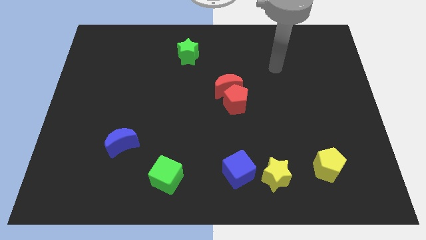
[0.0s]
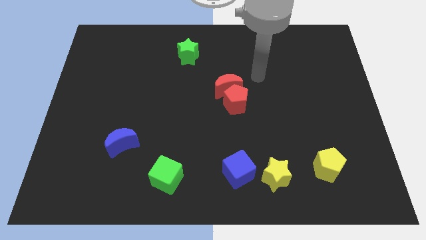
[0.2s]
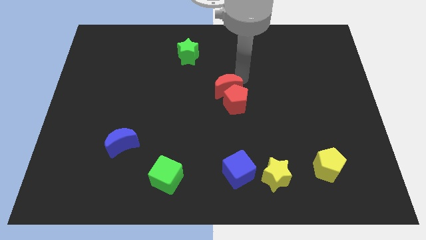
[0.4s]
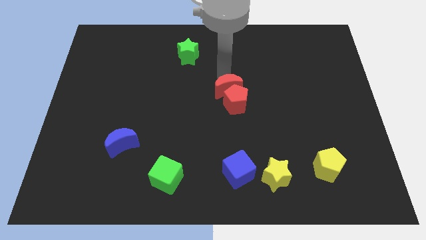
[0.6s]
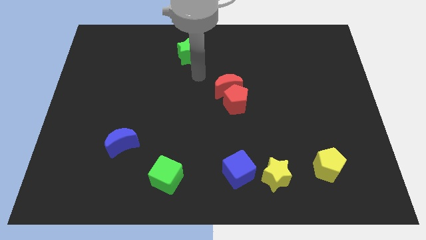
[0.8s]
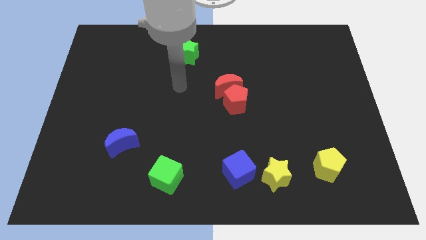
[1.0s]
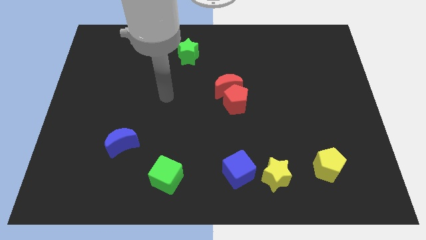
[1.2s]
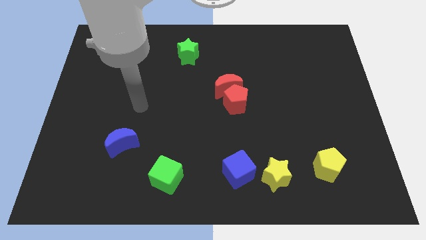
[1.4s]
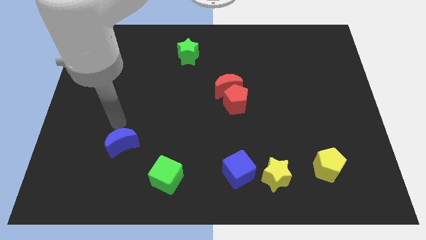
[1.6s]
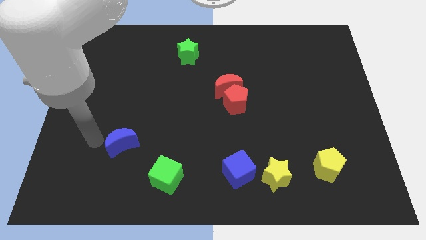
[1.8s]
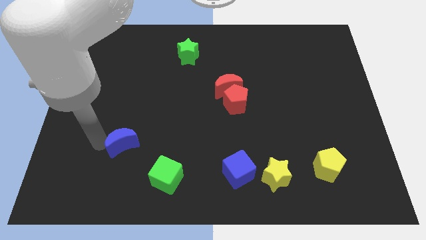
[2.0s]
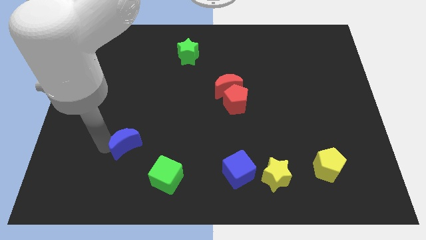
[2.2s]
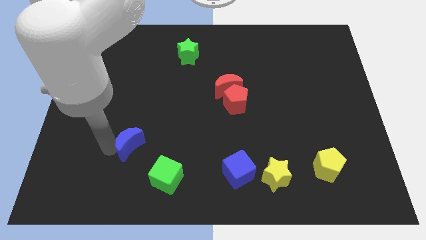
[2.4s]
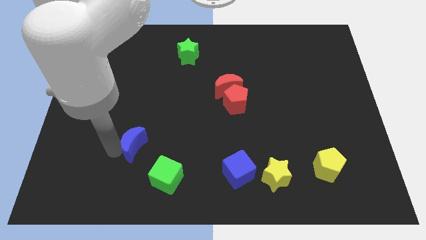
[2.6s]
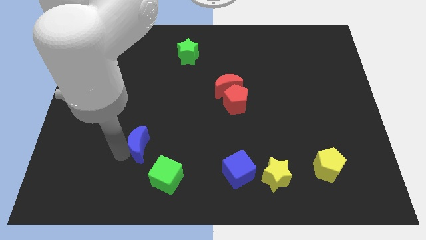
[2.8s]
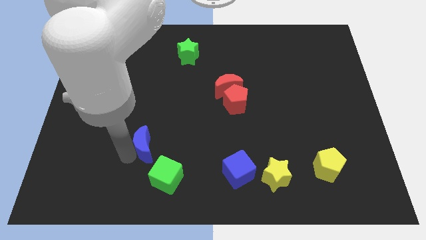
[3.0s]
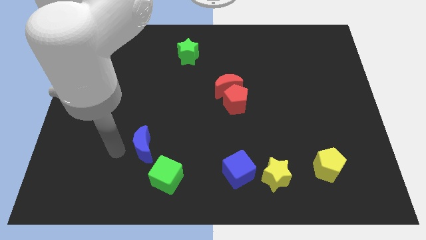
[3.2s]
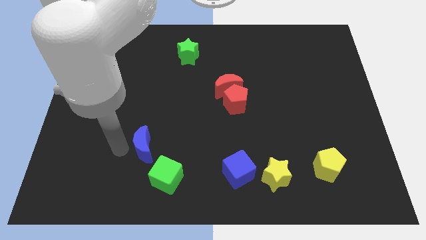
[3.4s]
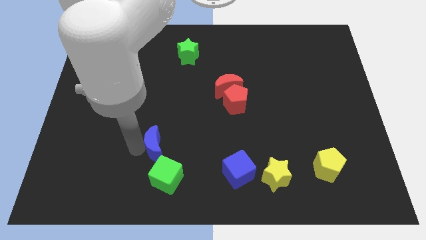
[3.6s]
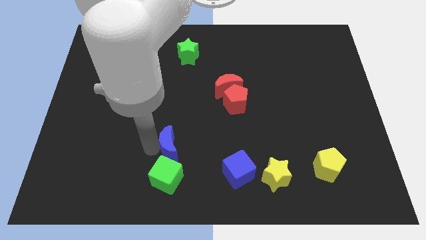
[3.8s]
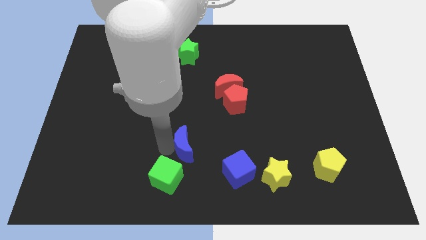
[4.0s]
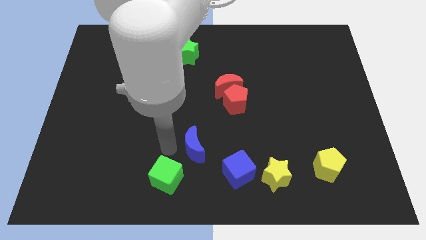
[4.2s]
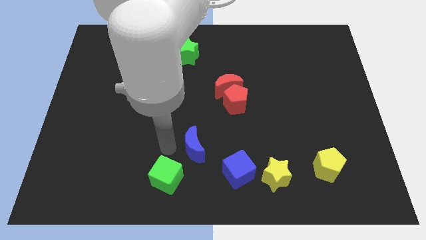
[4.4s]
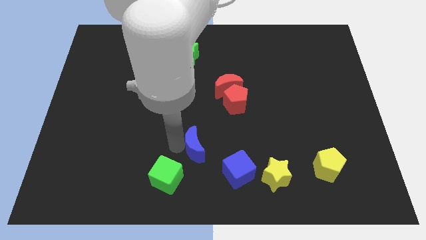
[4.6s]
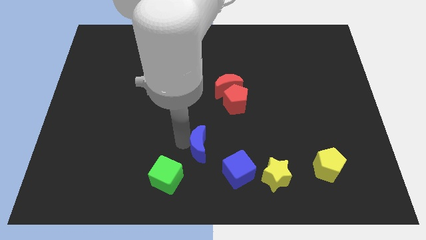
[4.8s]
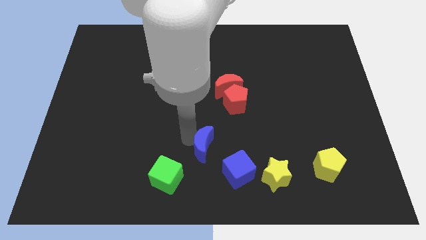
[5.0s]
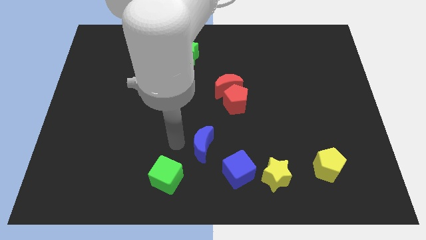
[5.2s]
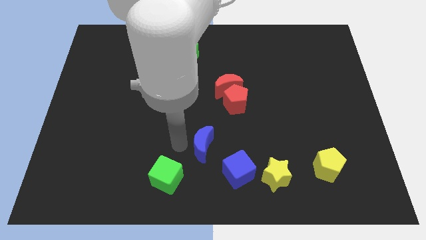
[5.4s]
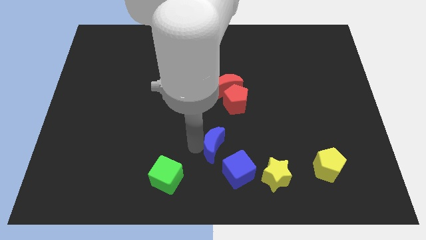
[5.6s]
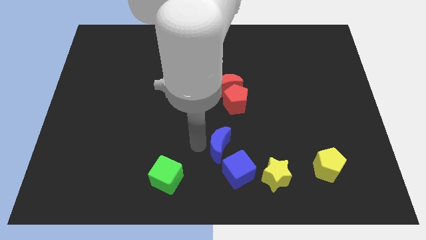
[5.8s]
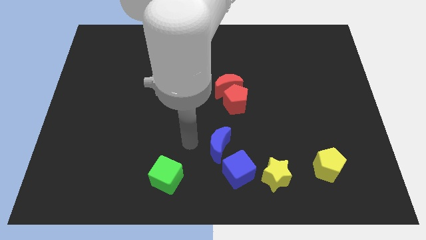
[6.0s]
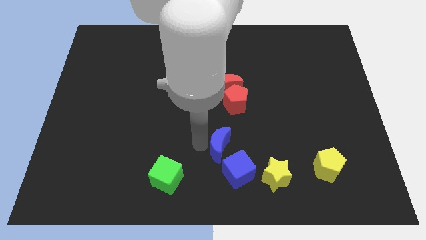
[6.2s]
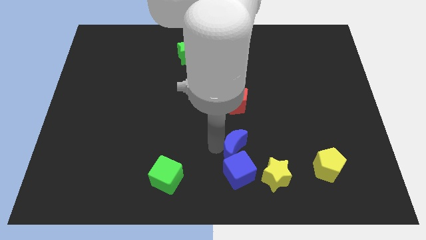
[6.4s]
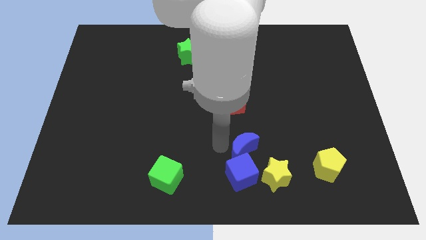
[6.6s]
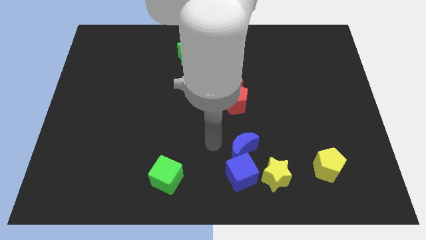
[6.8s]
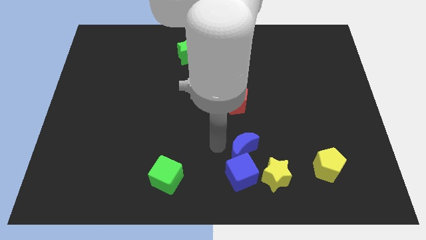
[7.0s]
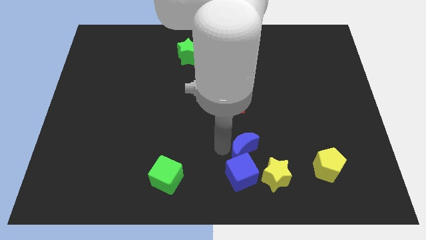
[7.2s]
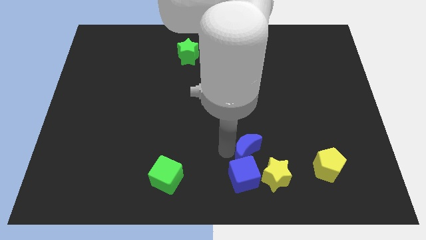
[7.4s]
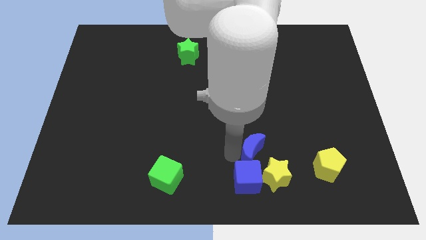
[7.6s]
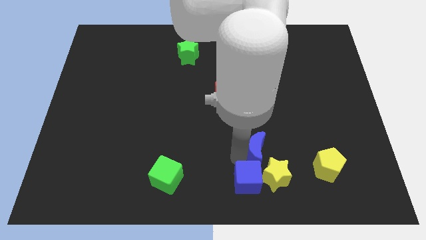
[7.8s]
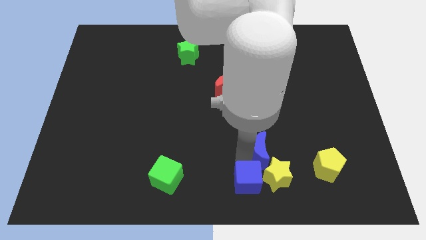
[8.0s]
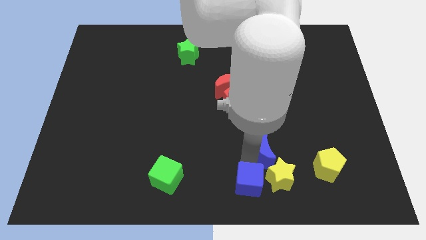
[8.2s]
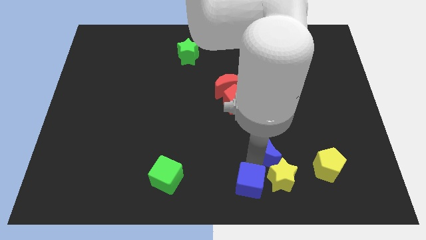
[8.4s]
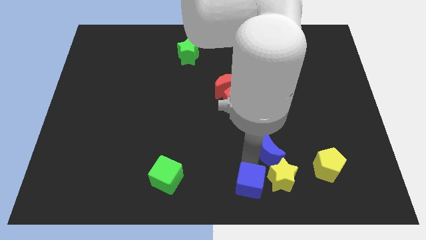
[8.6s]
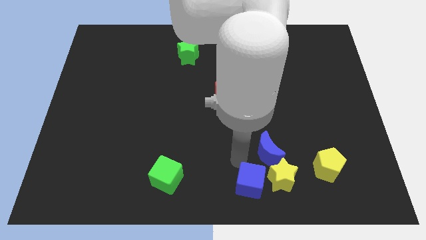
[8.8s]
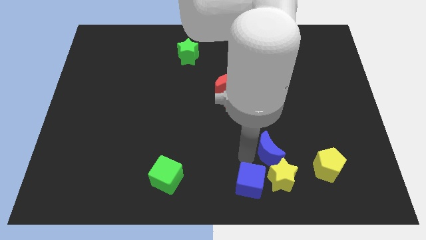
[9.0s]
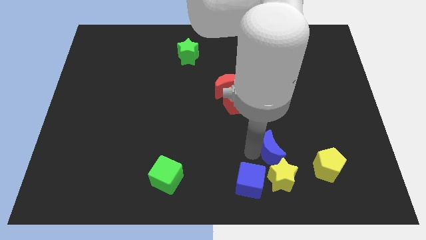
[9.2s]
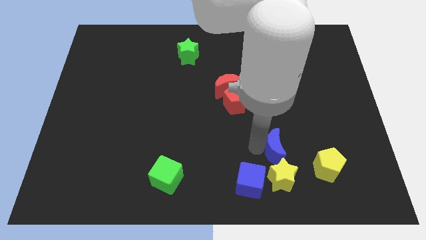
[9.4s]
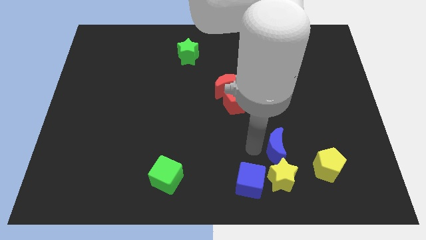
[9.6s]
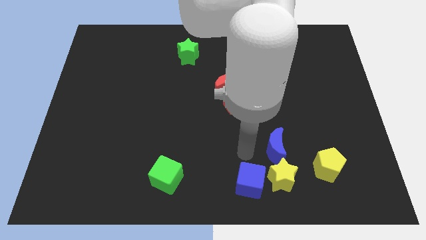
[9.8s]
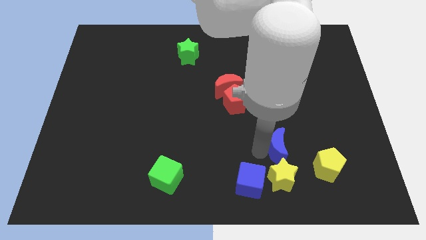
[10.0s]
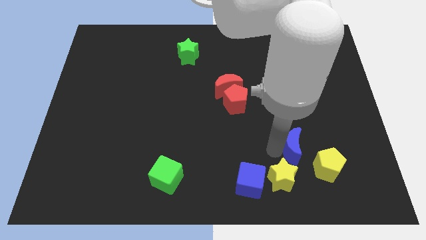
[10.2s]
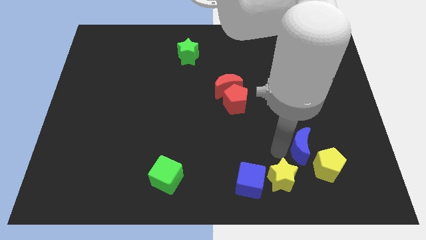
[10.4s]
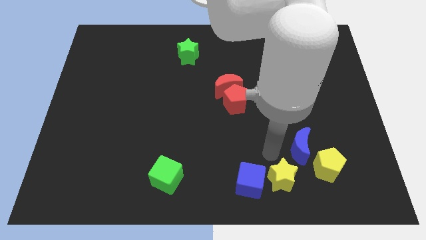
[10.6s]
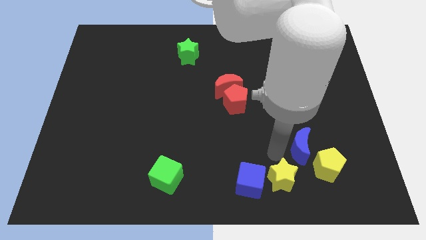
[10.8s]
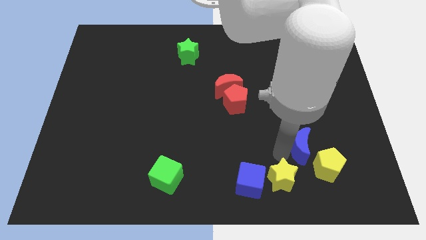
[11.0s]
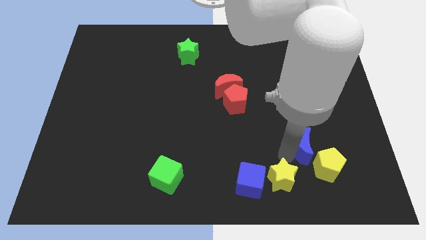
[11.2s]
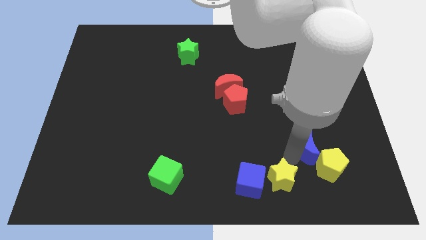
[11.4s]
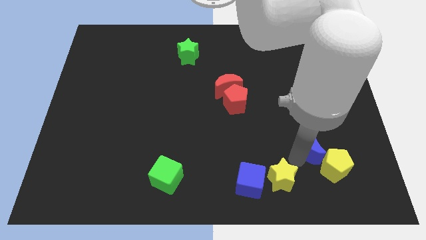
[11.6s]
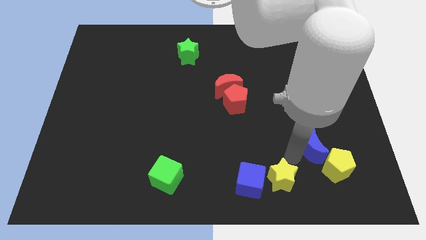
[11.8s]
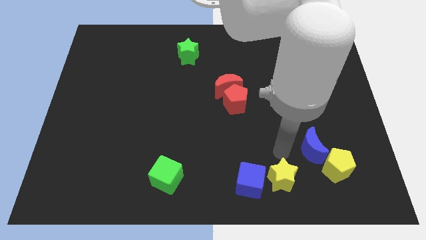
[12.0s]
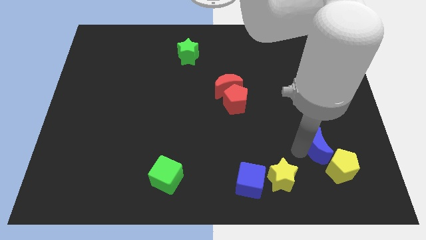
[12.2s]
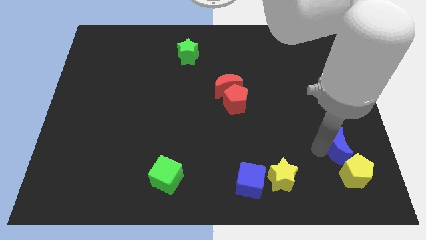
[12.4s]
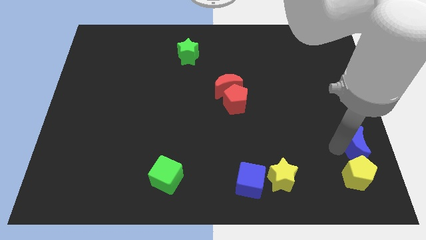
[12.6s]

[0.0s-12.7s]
move the blue moon diagonally up and to the right of the yellow pentagon

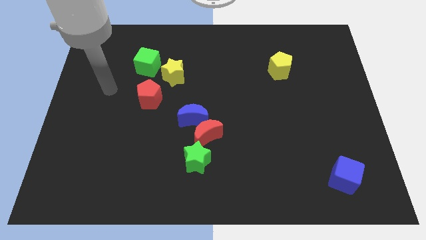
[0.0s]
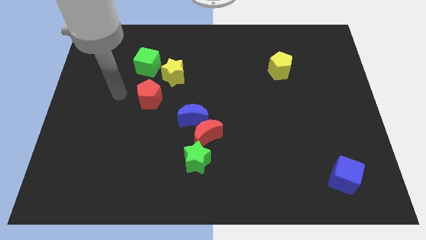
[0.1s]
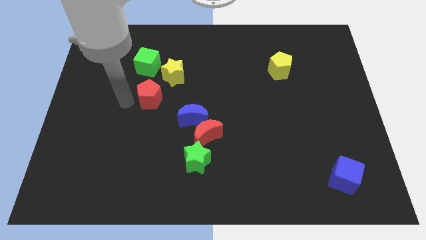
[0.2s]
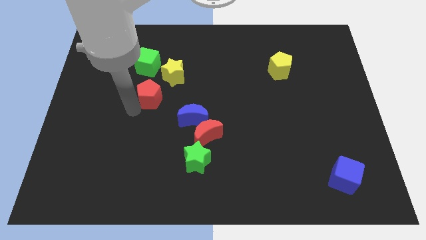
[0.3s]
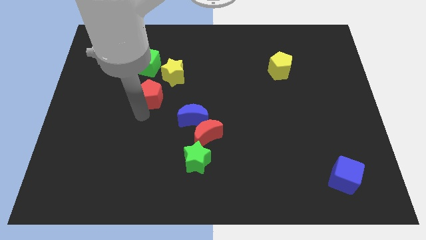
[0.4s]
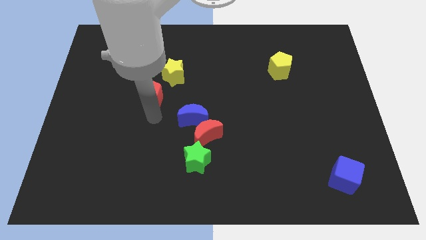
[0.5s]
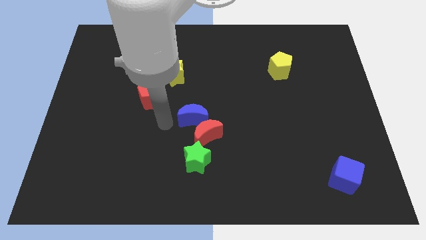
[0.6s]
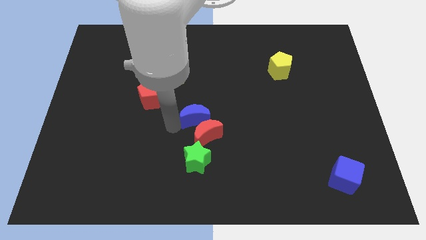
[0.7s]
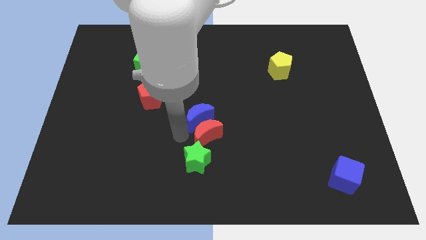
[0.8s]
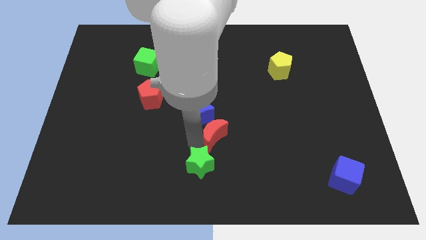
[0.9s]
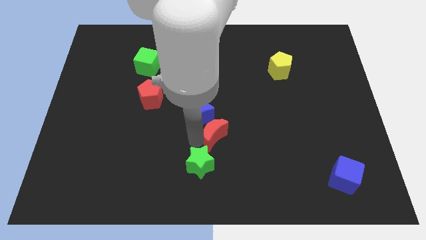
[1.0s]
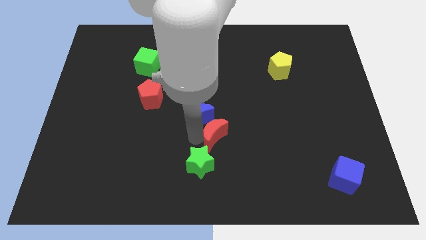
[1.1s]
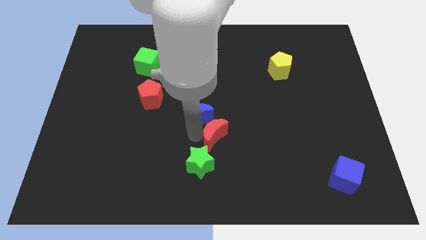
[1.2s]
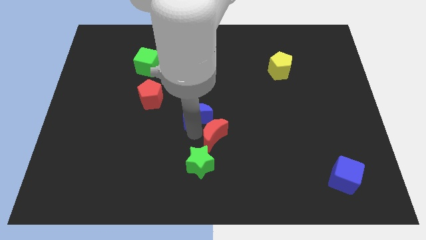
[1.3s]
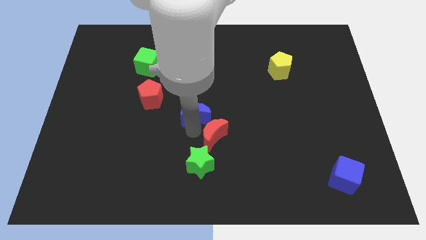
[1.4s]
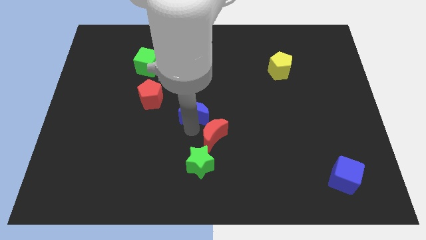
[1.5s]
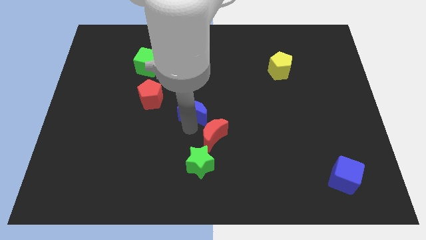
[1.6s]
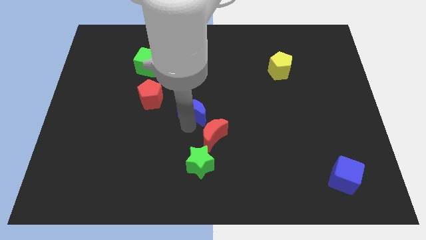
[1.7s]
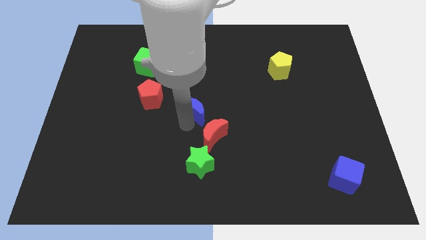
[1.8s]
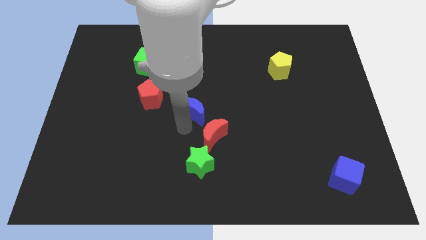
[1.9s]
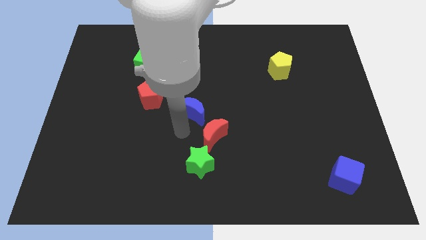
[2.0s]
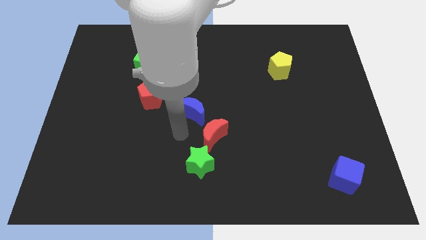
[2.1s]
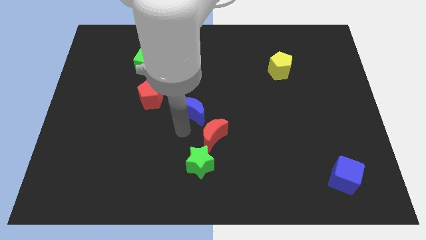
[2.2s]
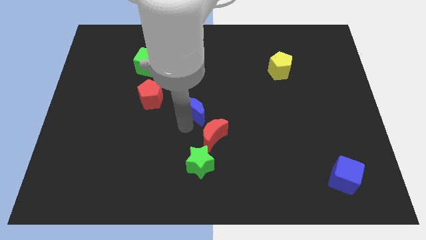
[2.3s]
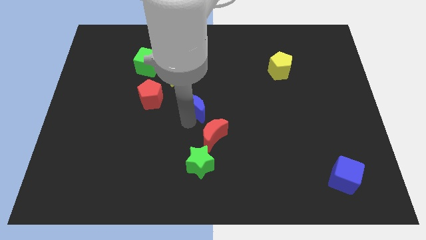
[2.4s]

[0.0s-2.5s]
push the blue moon to the bottom right side of the yellow star
